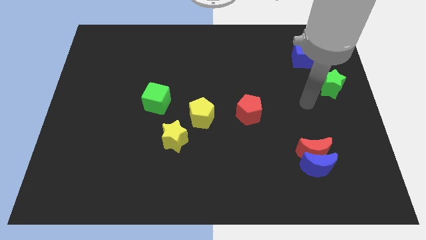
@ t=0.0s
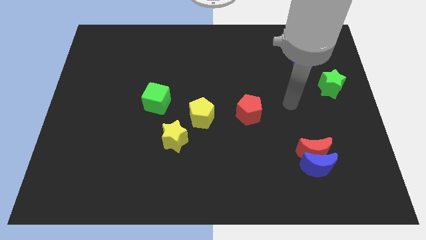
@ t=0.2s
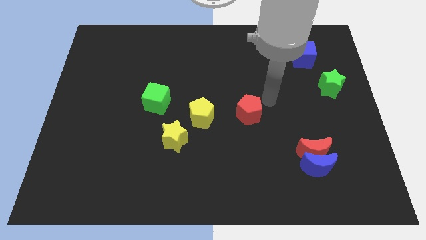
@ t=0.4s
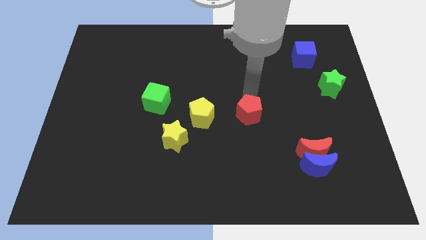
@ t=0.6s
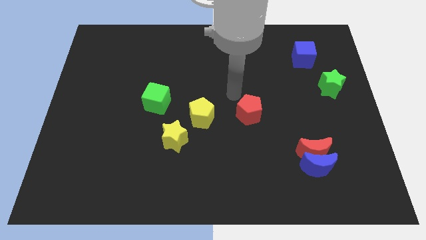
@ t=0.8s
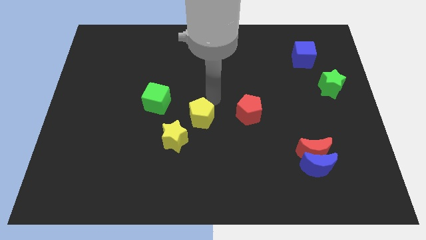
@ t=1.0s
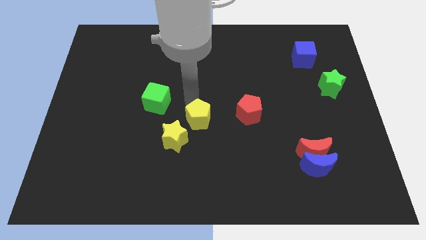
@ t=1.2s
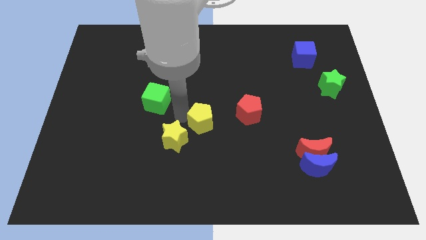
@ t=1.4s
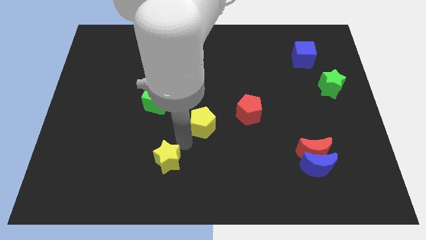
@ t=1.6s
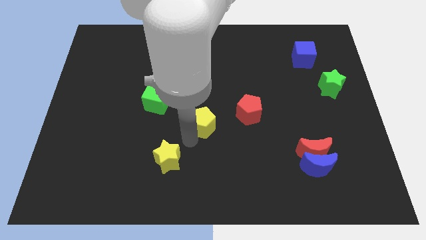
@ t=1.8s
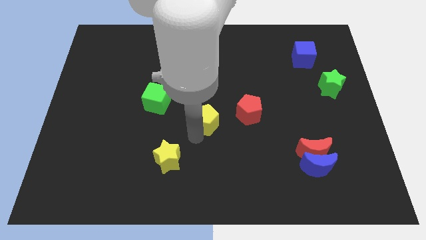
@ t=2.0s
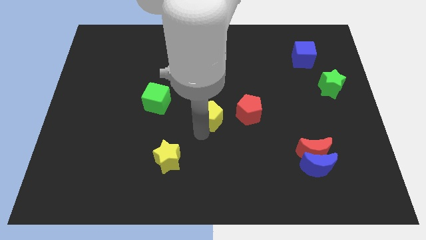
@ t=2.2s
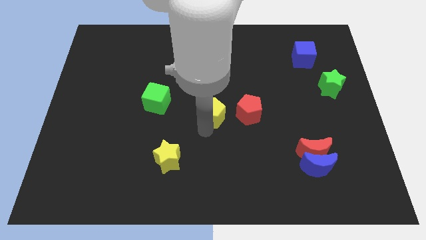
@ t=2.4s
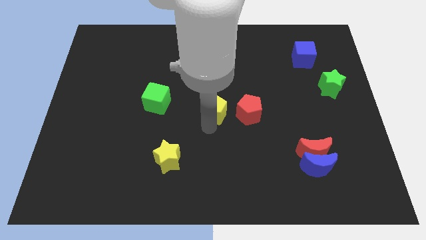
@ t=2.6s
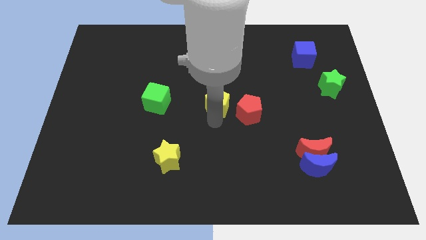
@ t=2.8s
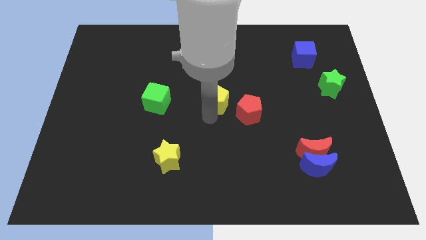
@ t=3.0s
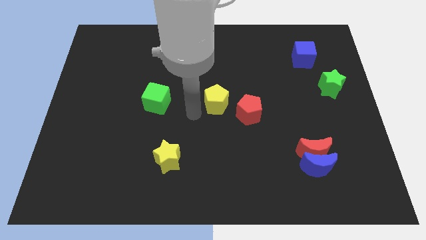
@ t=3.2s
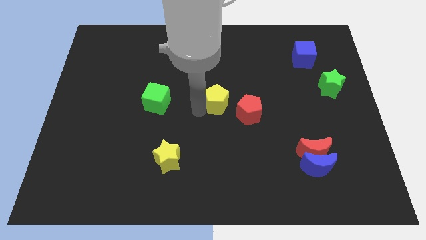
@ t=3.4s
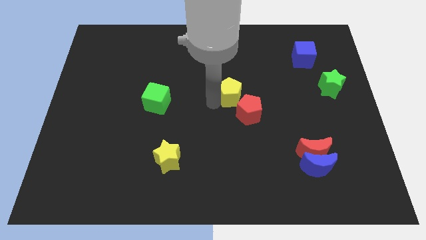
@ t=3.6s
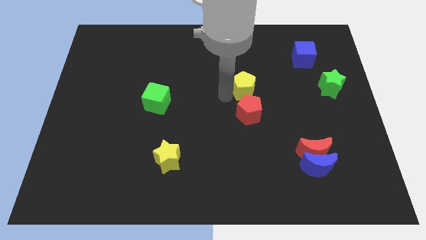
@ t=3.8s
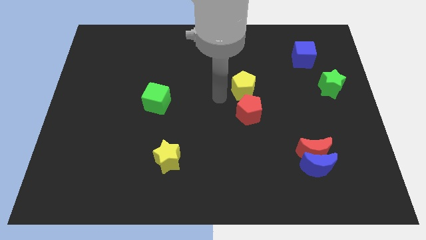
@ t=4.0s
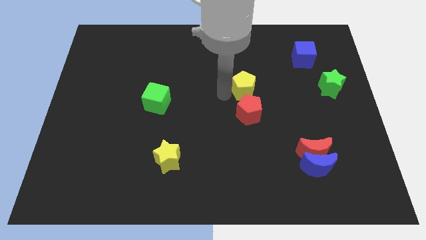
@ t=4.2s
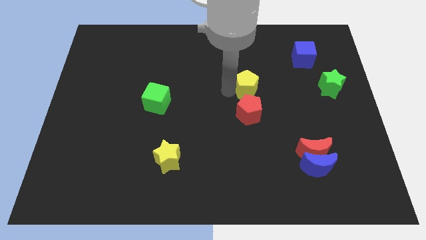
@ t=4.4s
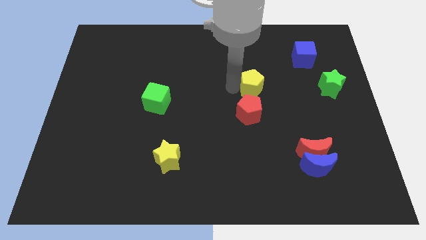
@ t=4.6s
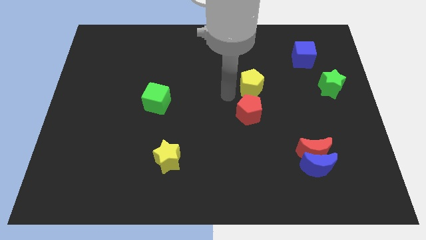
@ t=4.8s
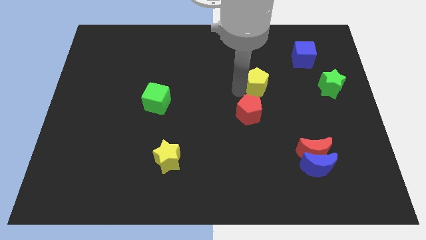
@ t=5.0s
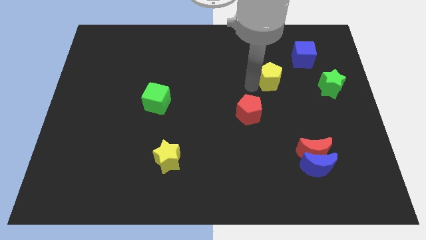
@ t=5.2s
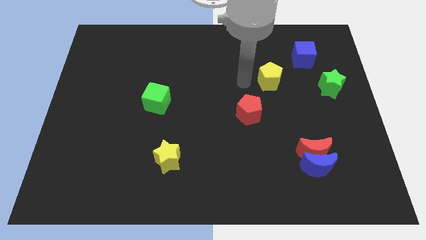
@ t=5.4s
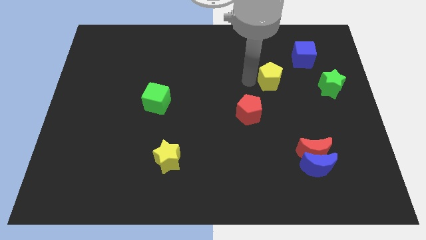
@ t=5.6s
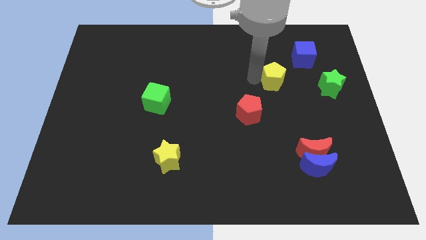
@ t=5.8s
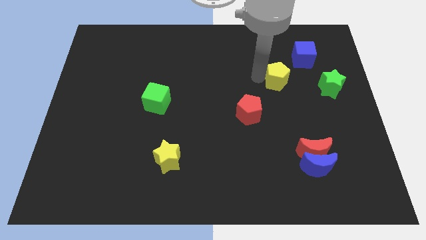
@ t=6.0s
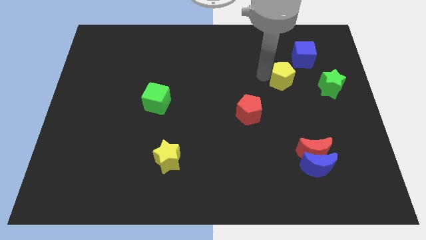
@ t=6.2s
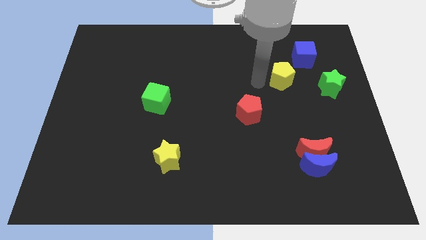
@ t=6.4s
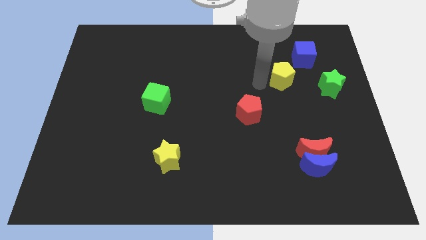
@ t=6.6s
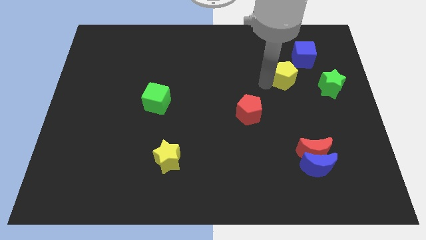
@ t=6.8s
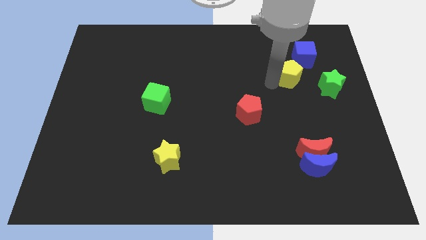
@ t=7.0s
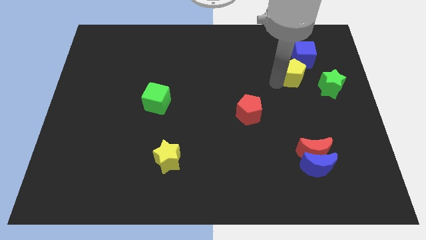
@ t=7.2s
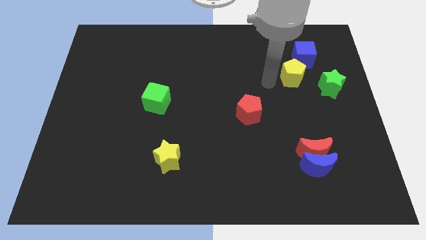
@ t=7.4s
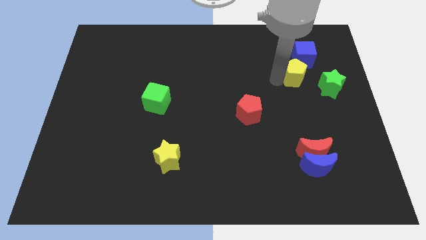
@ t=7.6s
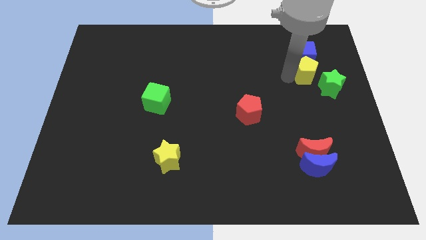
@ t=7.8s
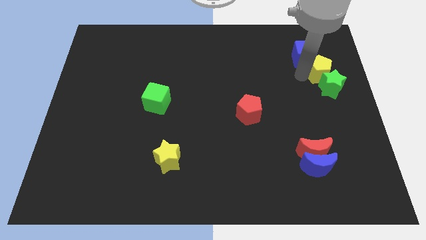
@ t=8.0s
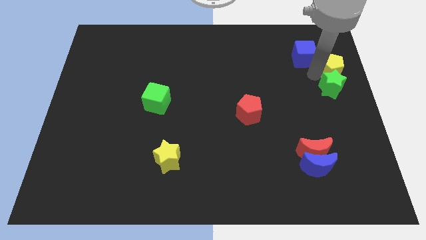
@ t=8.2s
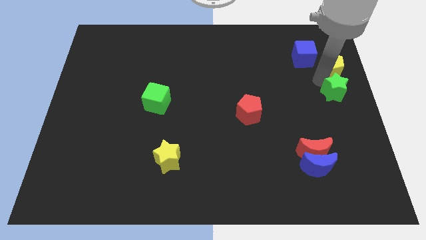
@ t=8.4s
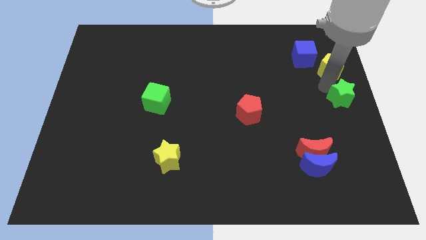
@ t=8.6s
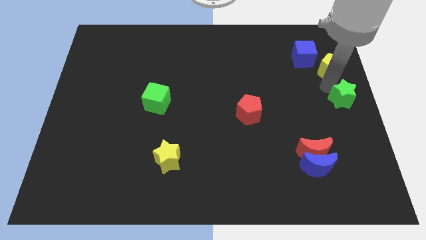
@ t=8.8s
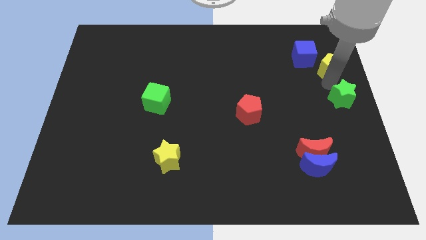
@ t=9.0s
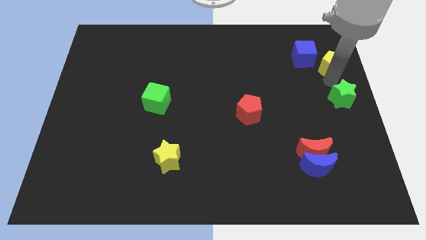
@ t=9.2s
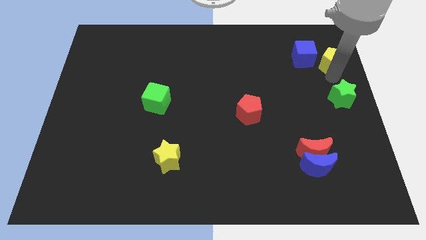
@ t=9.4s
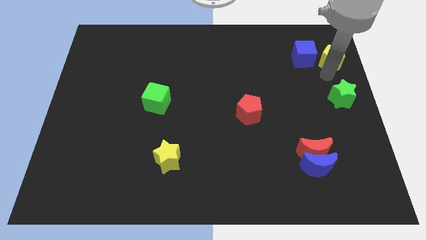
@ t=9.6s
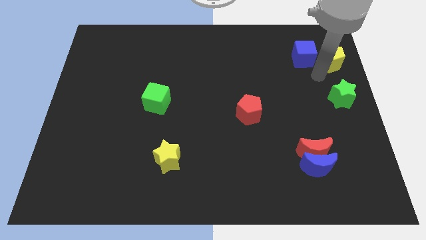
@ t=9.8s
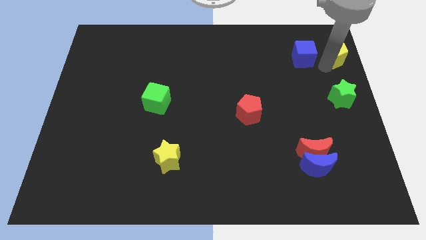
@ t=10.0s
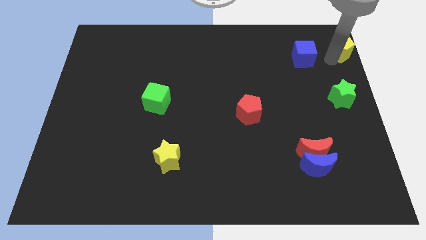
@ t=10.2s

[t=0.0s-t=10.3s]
put the yellow pentagon to the top right of the board
